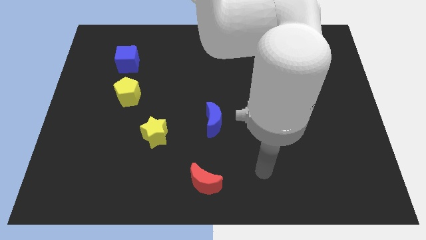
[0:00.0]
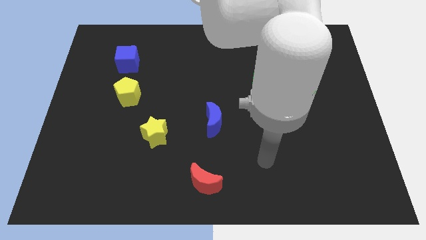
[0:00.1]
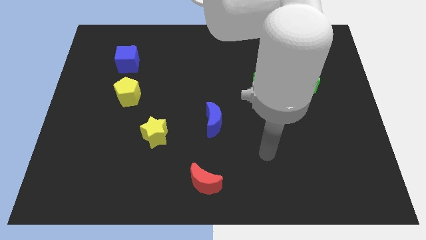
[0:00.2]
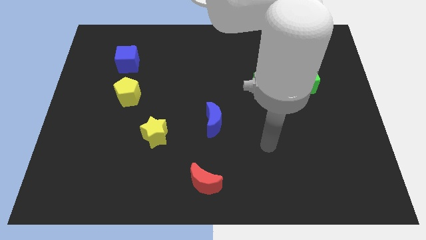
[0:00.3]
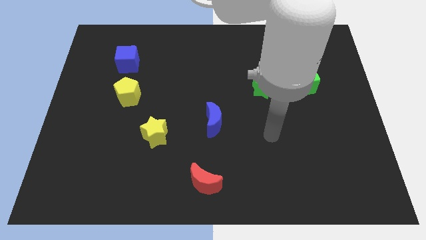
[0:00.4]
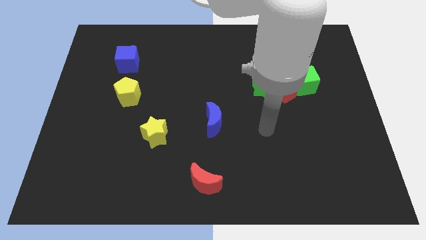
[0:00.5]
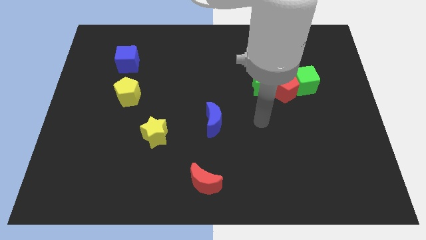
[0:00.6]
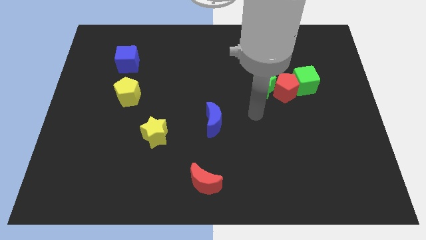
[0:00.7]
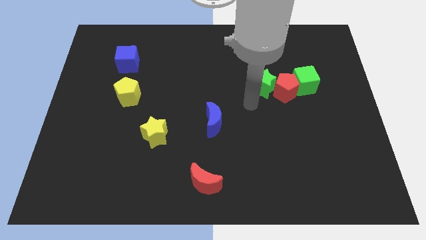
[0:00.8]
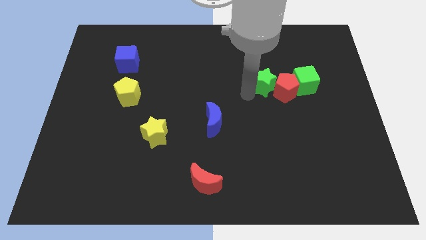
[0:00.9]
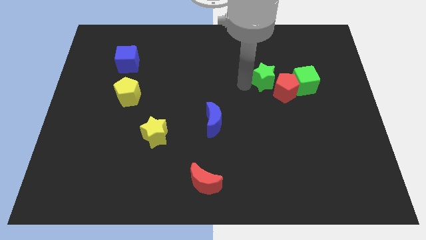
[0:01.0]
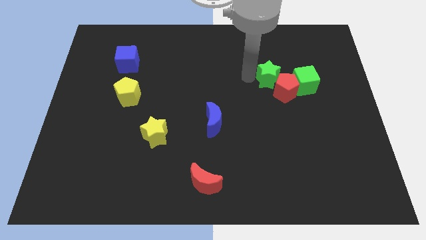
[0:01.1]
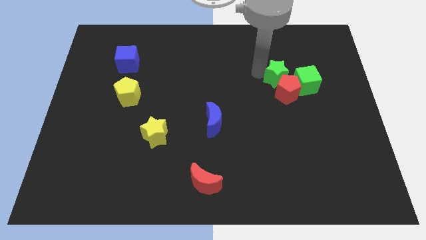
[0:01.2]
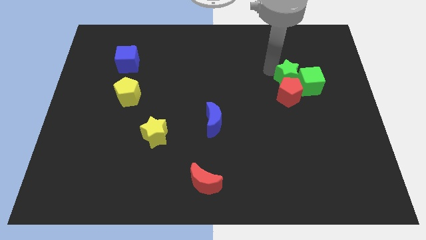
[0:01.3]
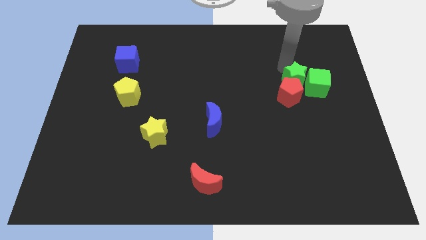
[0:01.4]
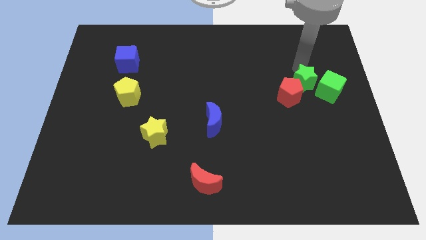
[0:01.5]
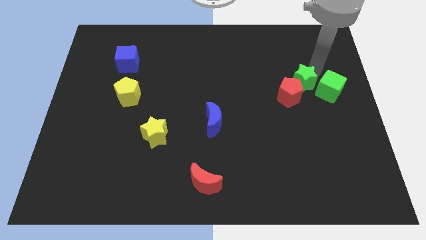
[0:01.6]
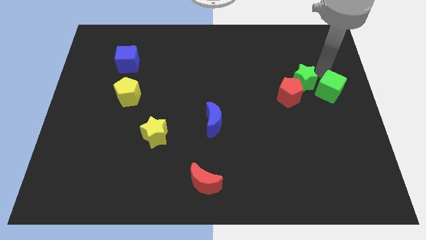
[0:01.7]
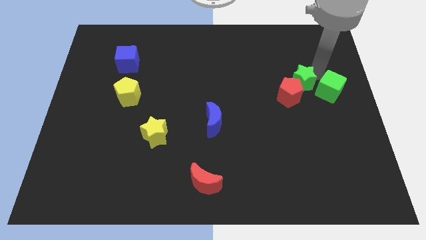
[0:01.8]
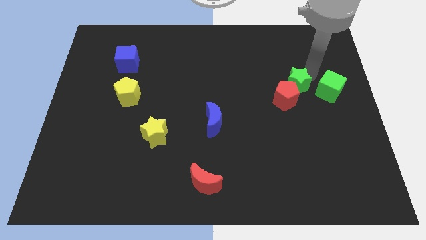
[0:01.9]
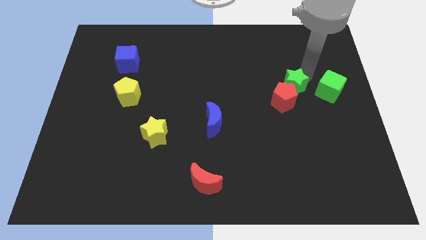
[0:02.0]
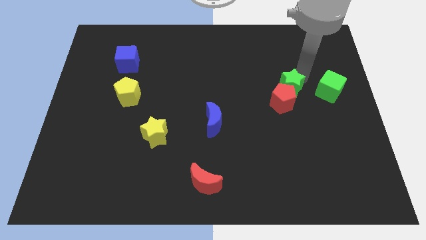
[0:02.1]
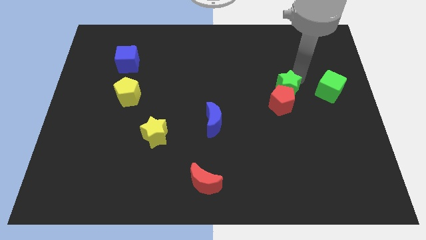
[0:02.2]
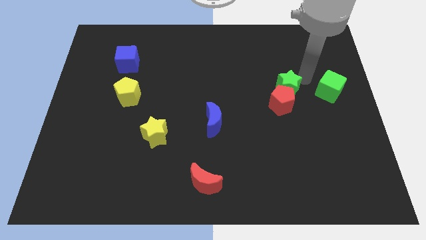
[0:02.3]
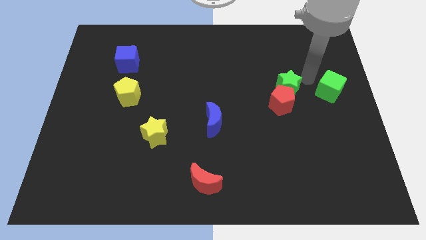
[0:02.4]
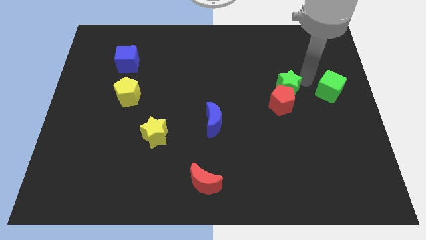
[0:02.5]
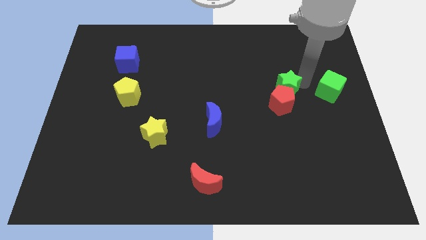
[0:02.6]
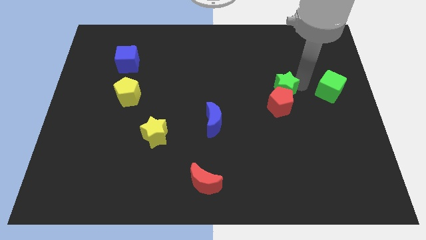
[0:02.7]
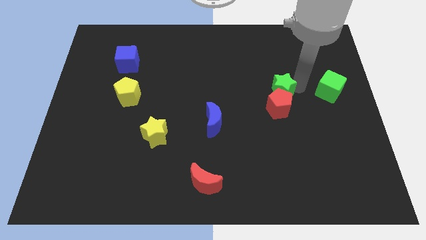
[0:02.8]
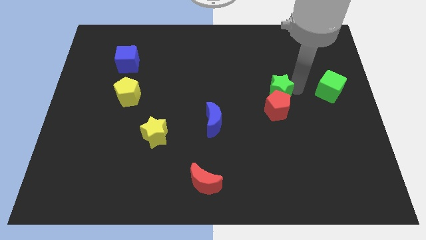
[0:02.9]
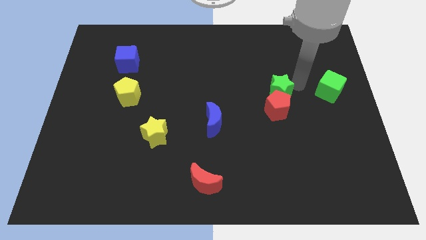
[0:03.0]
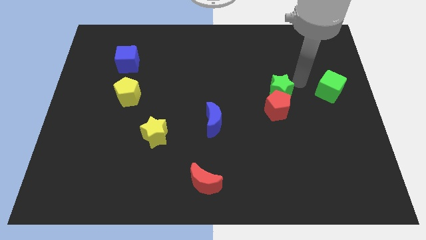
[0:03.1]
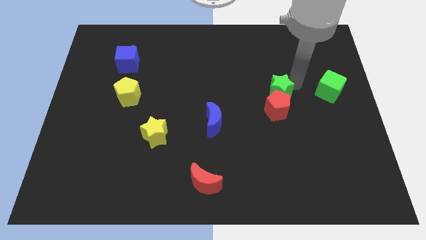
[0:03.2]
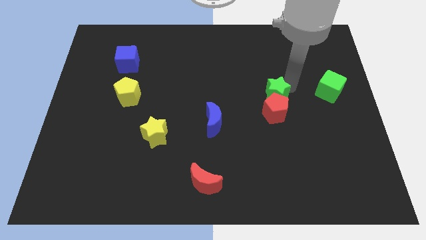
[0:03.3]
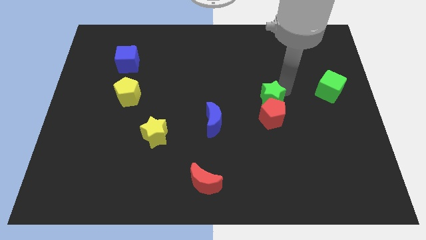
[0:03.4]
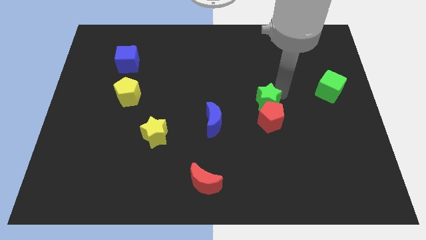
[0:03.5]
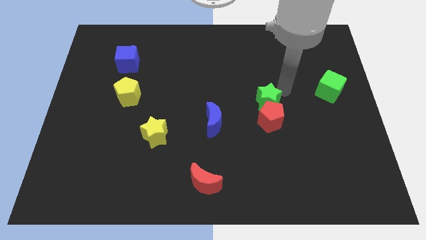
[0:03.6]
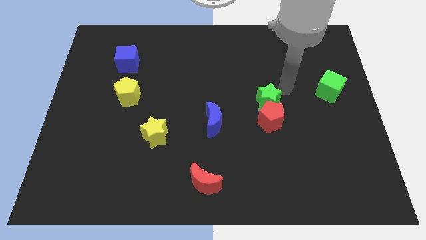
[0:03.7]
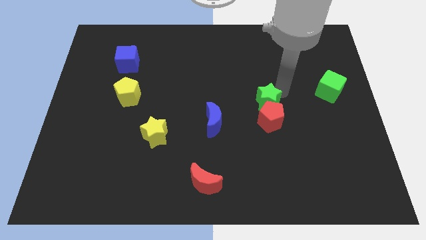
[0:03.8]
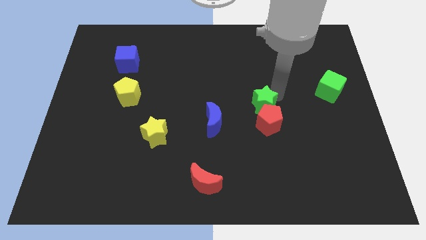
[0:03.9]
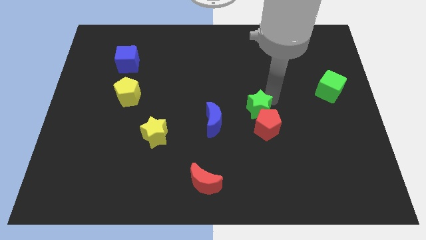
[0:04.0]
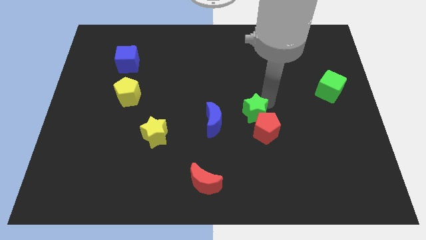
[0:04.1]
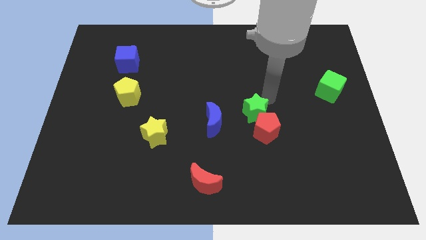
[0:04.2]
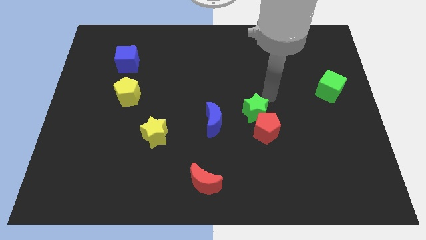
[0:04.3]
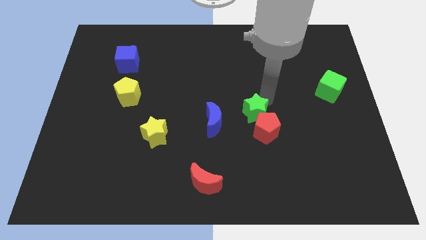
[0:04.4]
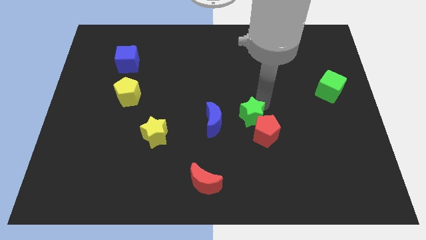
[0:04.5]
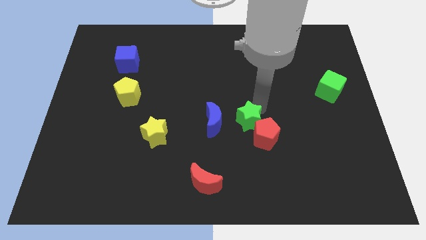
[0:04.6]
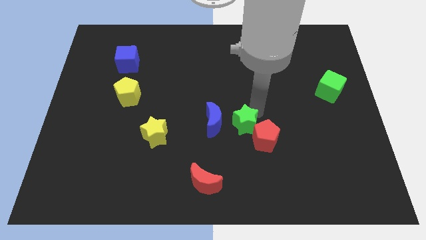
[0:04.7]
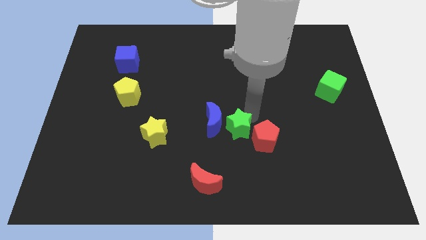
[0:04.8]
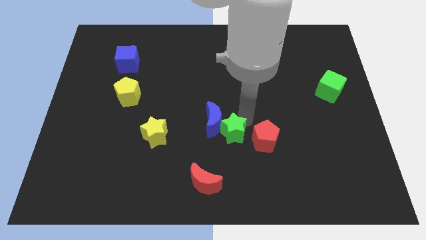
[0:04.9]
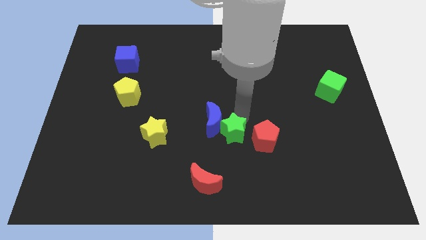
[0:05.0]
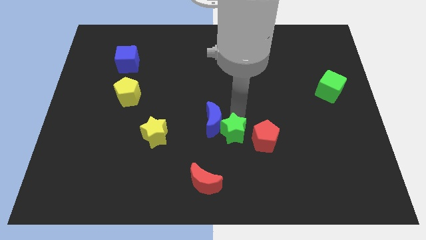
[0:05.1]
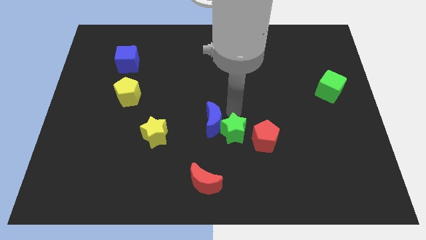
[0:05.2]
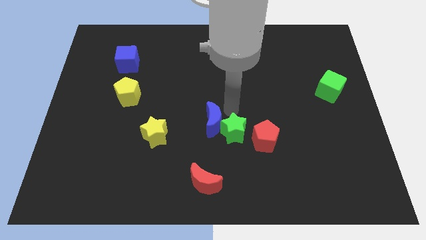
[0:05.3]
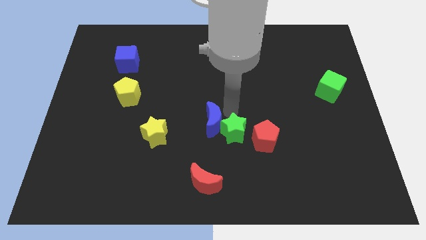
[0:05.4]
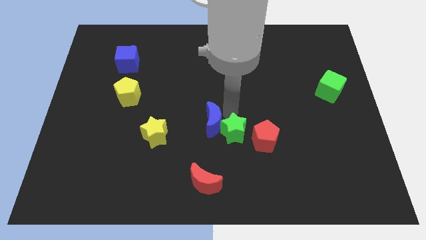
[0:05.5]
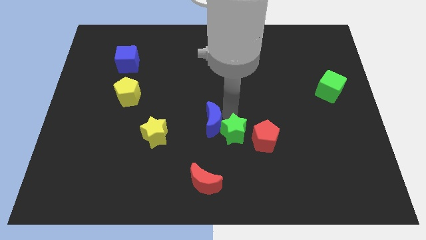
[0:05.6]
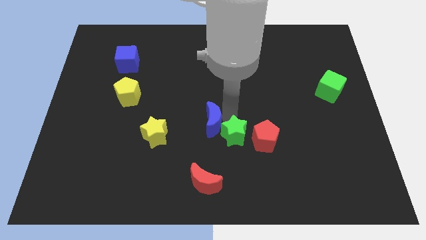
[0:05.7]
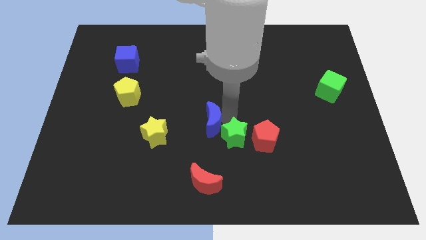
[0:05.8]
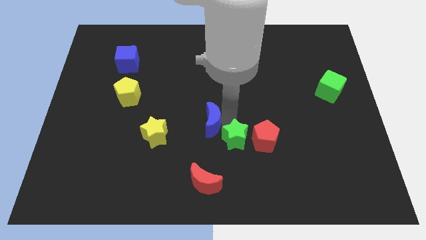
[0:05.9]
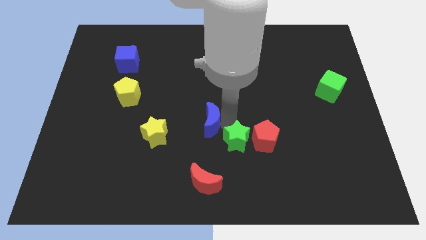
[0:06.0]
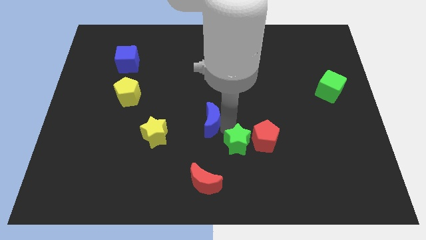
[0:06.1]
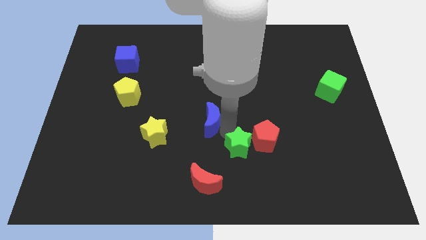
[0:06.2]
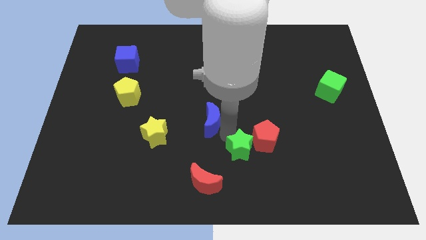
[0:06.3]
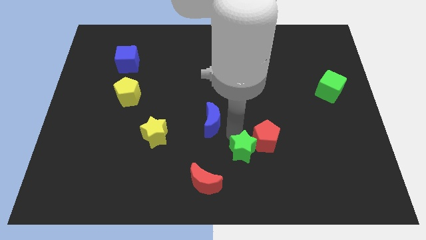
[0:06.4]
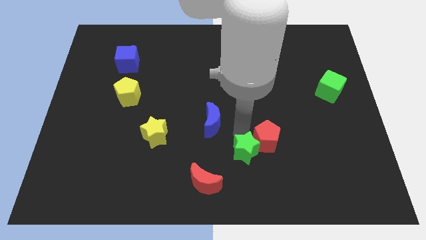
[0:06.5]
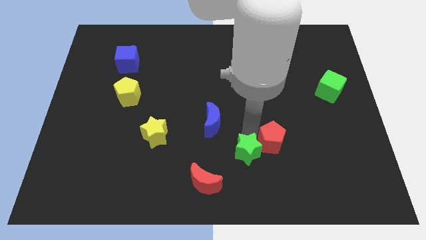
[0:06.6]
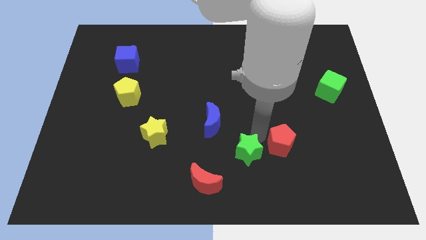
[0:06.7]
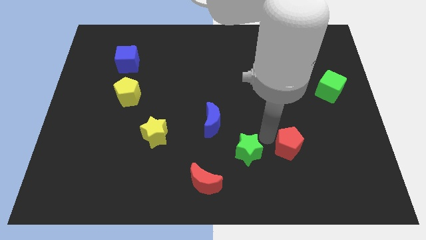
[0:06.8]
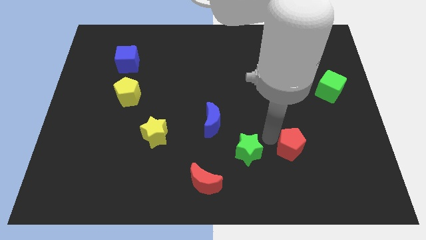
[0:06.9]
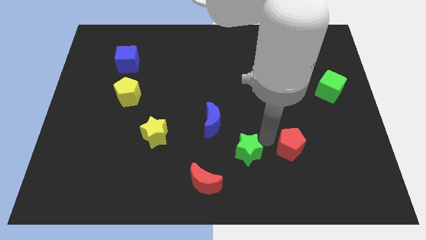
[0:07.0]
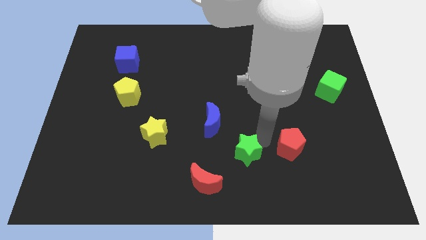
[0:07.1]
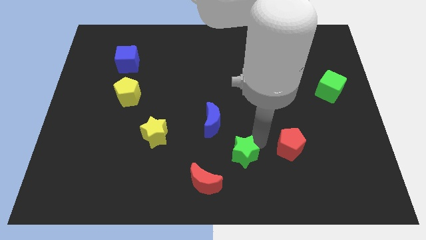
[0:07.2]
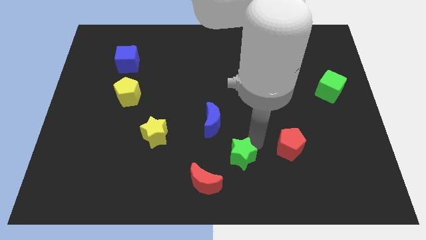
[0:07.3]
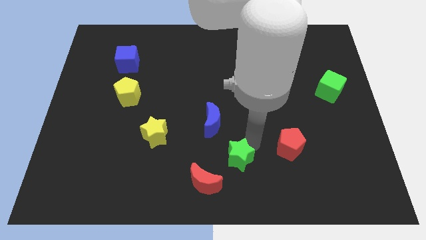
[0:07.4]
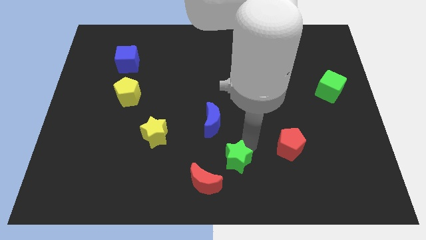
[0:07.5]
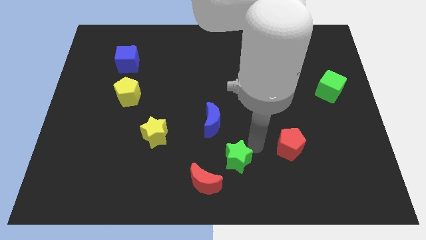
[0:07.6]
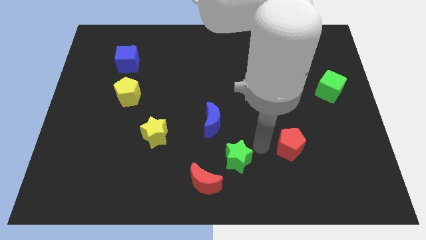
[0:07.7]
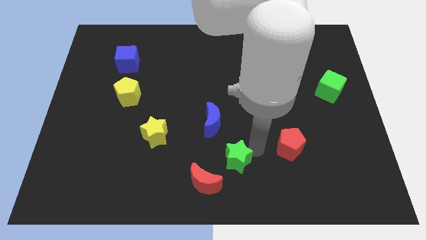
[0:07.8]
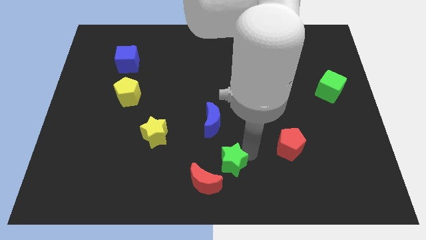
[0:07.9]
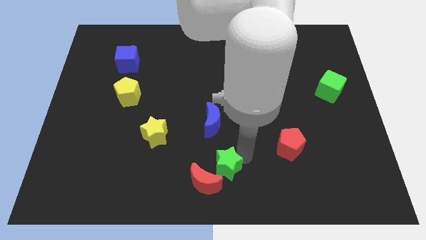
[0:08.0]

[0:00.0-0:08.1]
slide the green star close to the red moon
